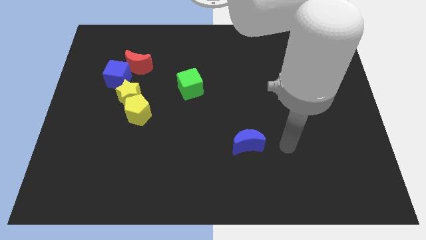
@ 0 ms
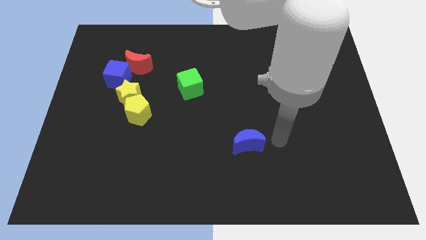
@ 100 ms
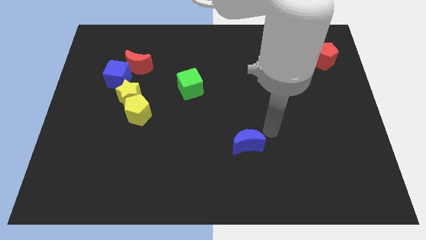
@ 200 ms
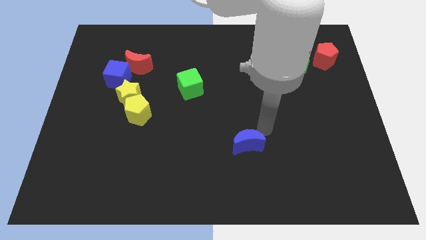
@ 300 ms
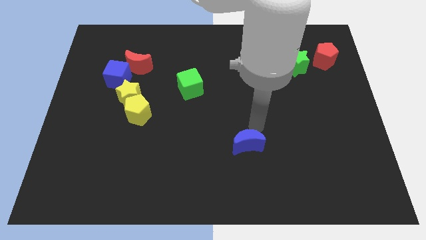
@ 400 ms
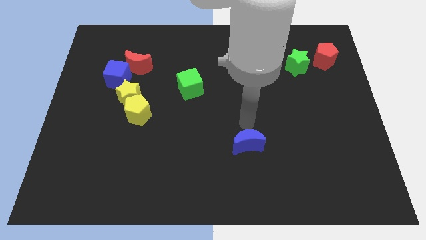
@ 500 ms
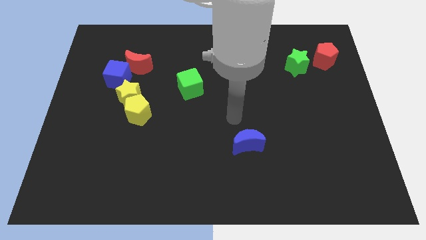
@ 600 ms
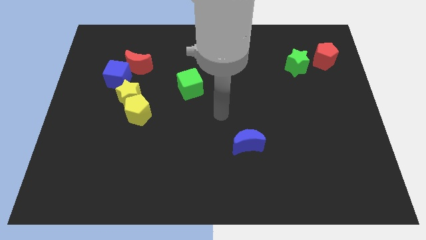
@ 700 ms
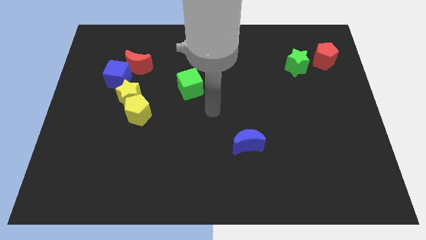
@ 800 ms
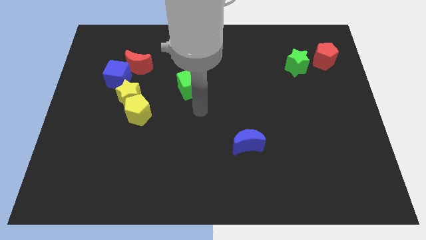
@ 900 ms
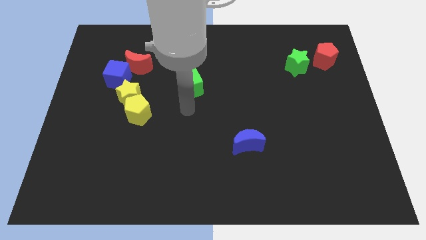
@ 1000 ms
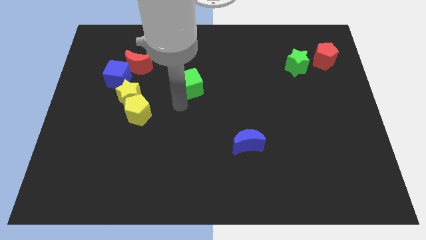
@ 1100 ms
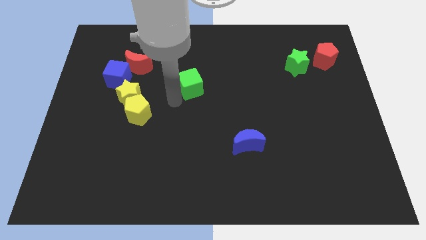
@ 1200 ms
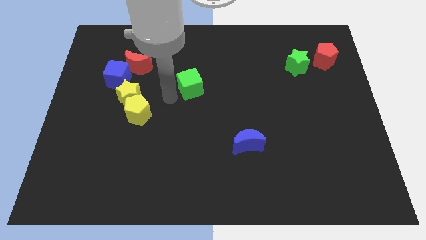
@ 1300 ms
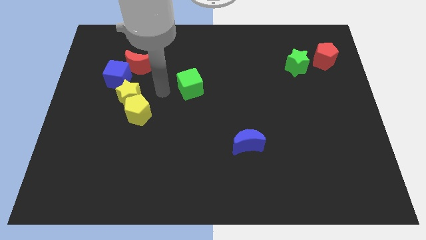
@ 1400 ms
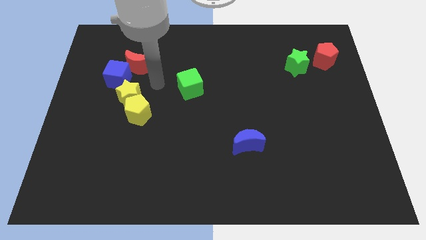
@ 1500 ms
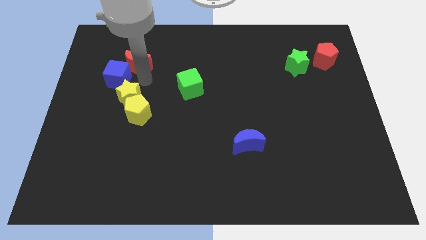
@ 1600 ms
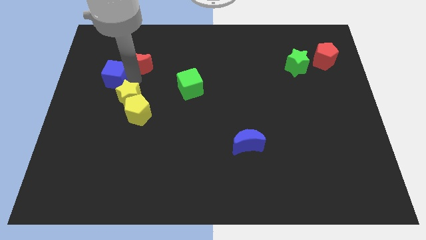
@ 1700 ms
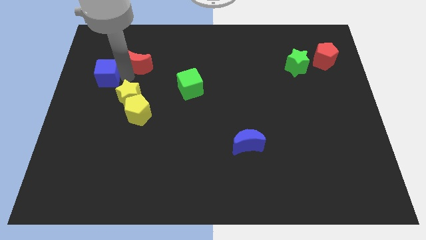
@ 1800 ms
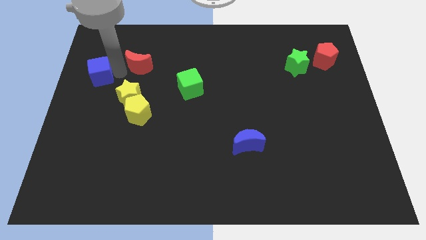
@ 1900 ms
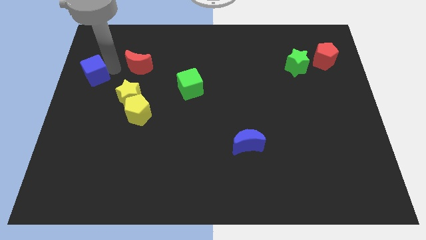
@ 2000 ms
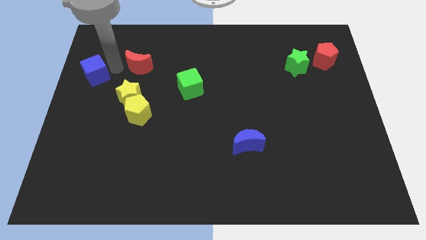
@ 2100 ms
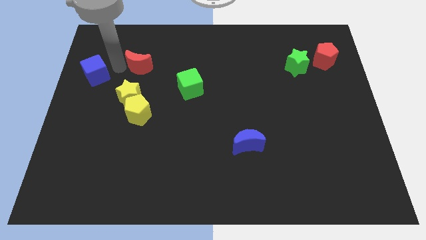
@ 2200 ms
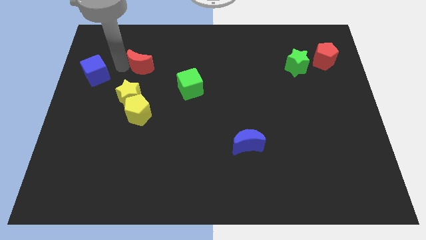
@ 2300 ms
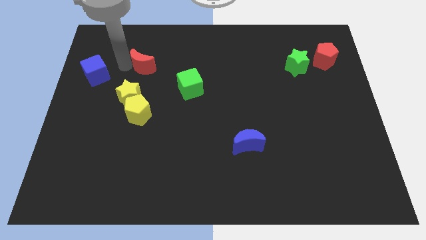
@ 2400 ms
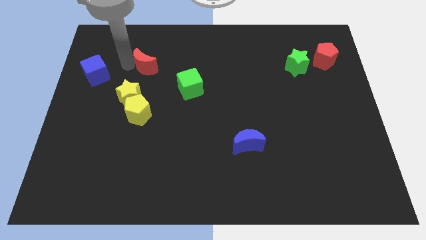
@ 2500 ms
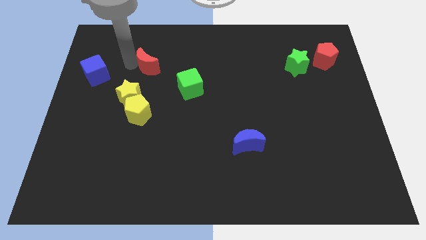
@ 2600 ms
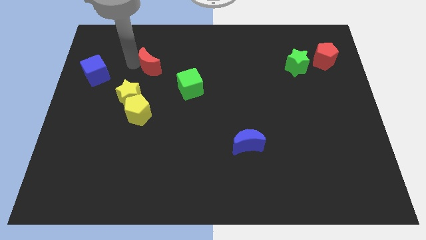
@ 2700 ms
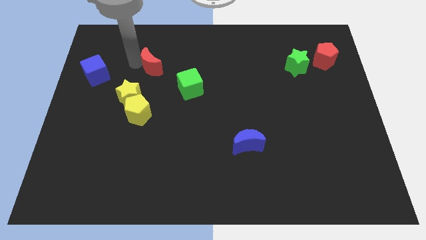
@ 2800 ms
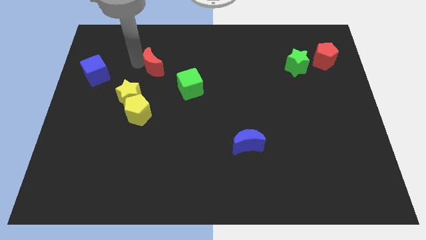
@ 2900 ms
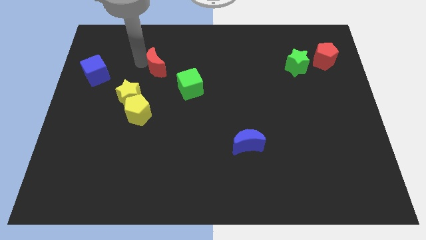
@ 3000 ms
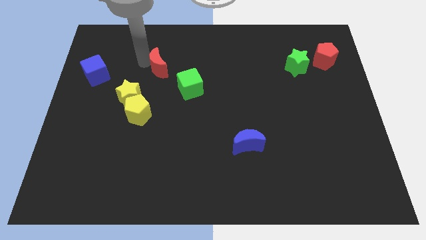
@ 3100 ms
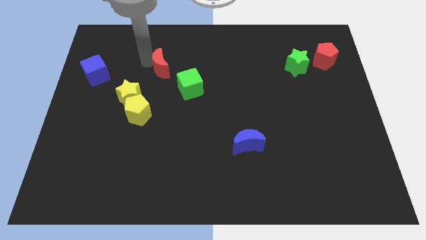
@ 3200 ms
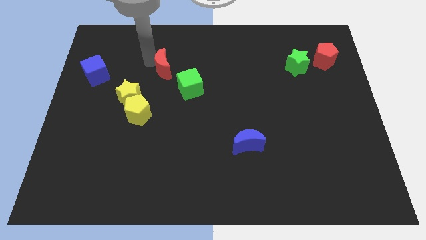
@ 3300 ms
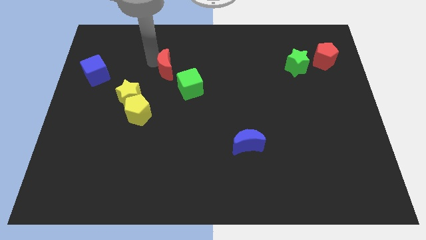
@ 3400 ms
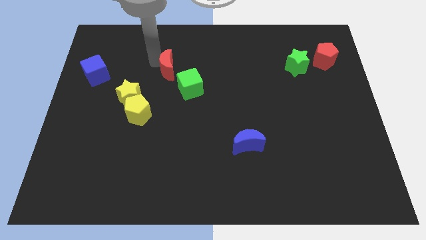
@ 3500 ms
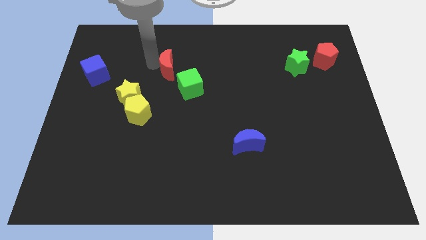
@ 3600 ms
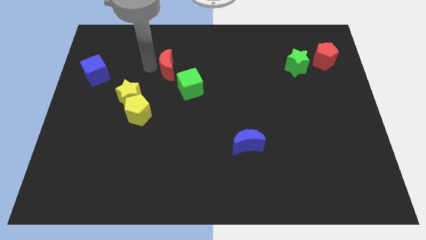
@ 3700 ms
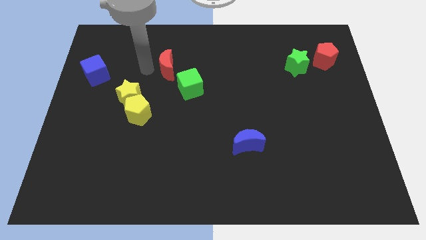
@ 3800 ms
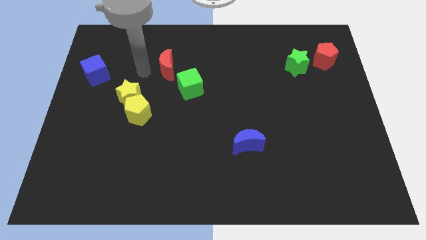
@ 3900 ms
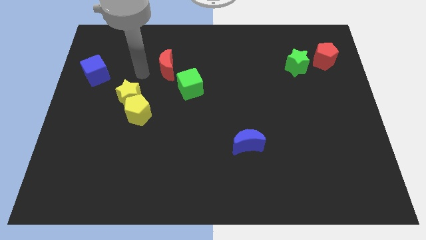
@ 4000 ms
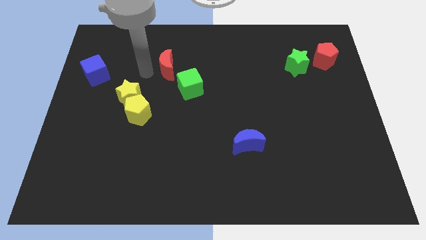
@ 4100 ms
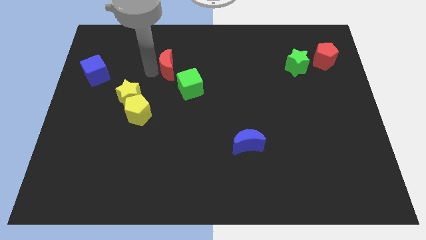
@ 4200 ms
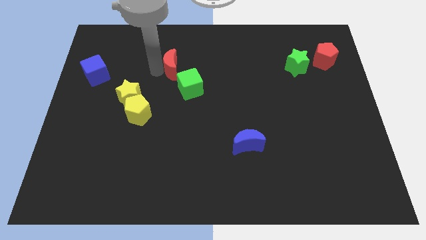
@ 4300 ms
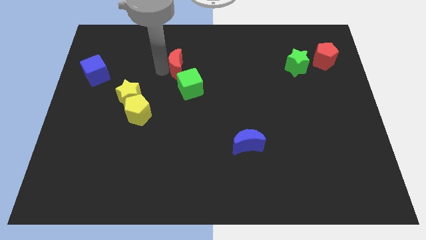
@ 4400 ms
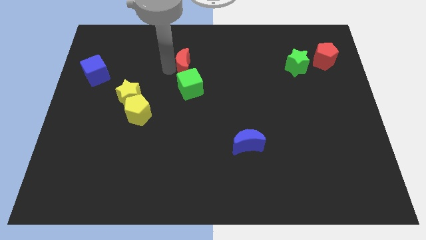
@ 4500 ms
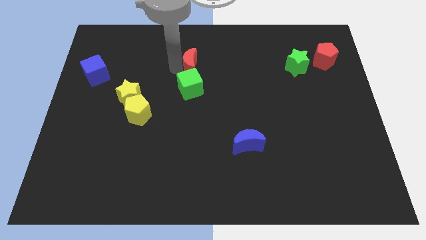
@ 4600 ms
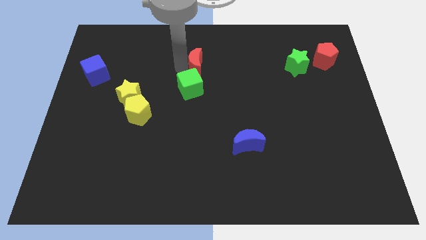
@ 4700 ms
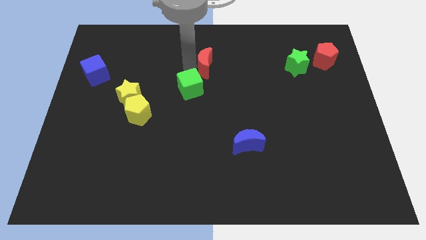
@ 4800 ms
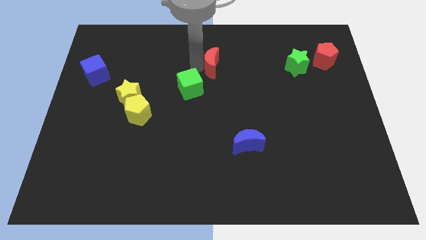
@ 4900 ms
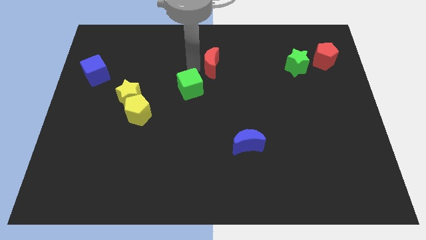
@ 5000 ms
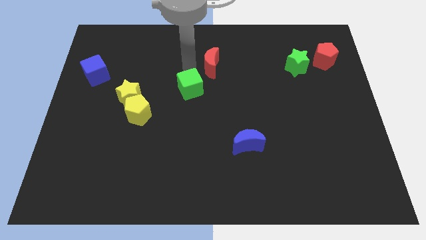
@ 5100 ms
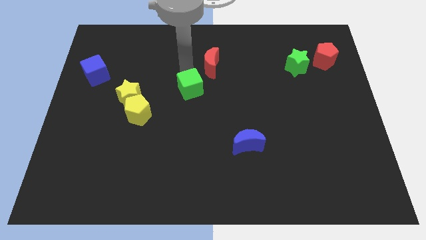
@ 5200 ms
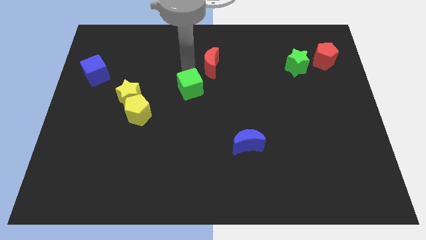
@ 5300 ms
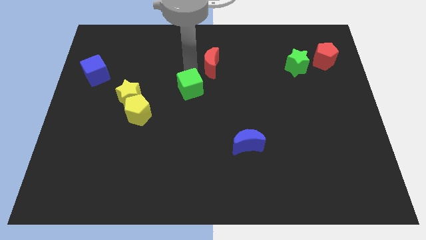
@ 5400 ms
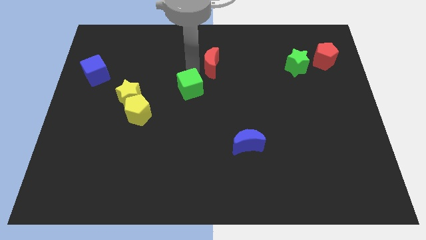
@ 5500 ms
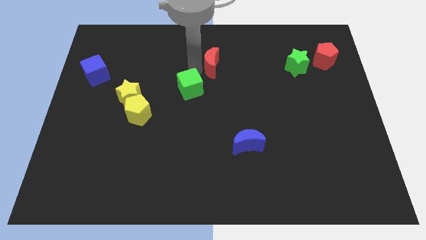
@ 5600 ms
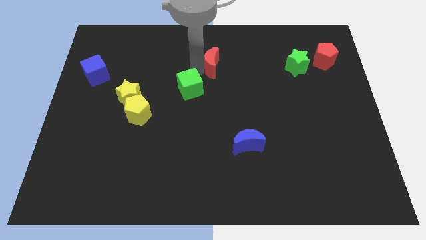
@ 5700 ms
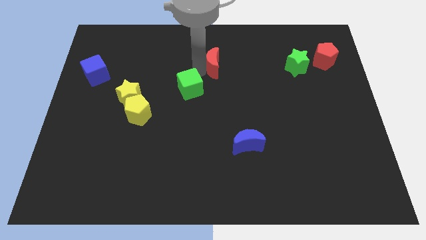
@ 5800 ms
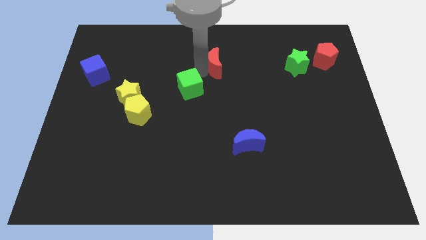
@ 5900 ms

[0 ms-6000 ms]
slide the red moon to the right

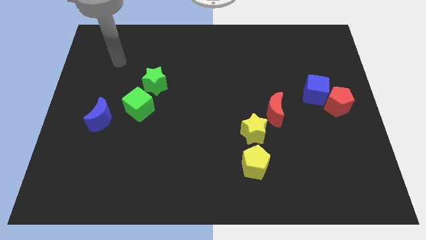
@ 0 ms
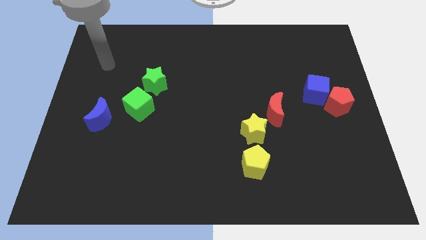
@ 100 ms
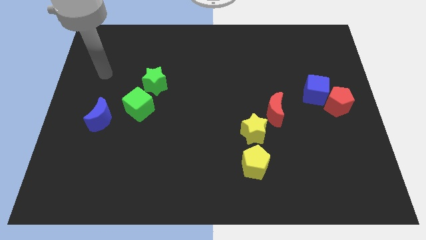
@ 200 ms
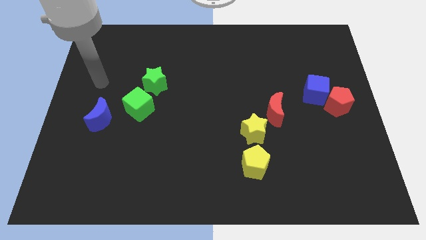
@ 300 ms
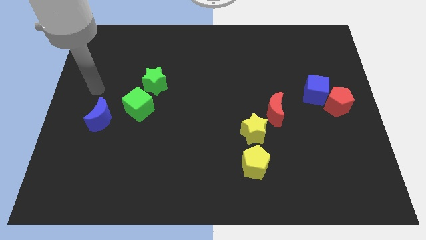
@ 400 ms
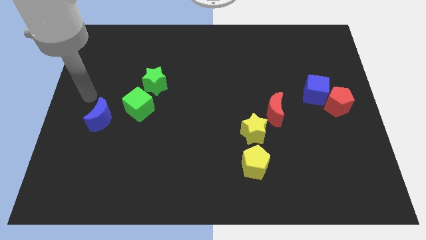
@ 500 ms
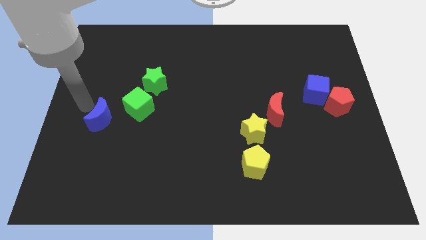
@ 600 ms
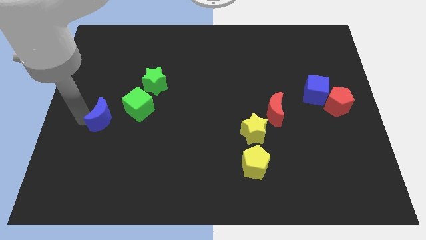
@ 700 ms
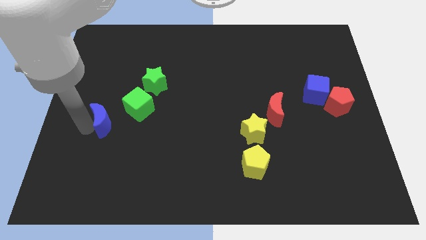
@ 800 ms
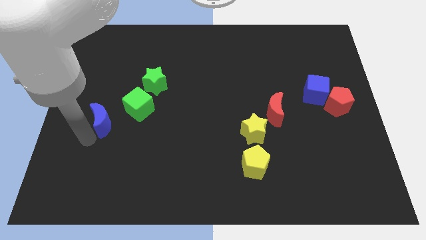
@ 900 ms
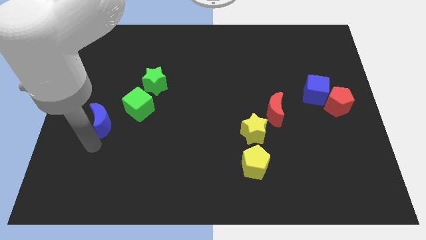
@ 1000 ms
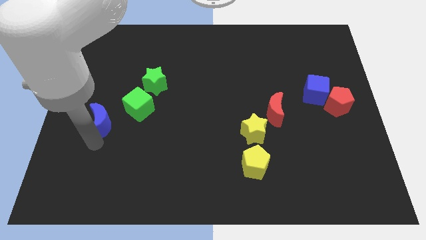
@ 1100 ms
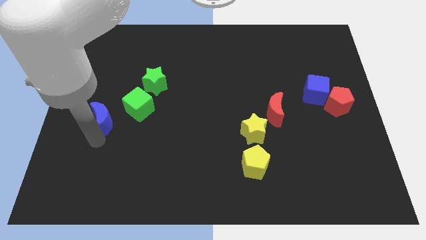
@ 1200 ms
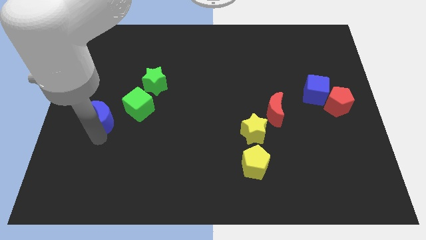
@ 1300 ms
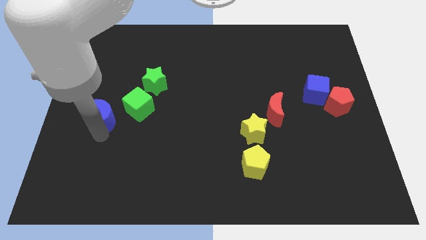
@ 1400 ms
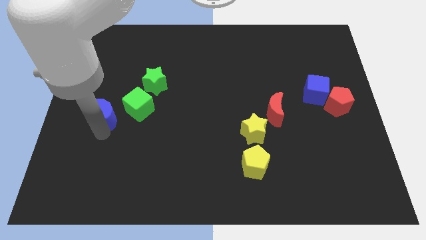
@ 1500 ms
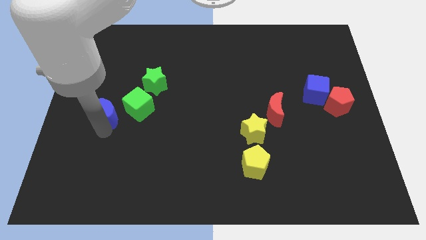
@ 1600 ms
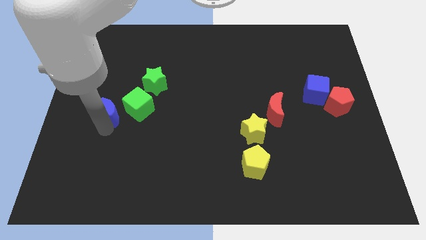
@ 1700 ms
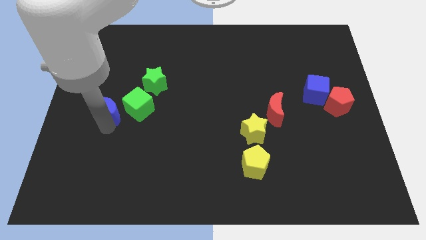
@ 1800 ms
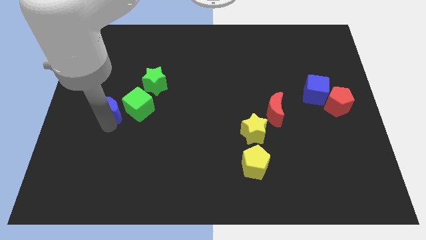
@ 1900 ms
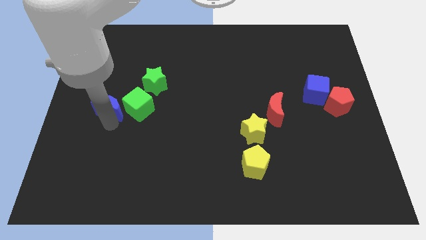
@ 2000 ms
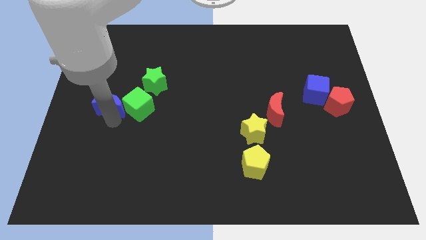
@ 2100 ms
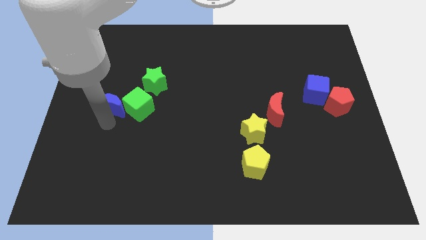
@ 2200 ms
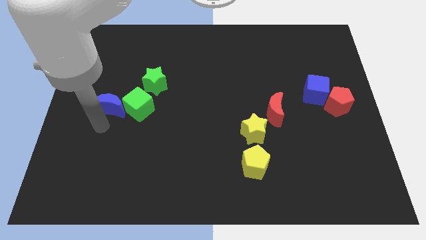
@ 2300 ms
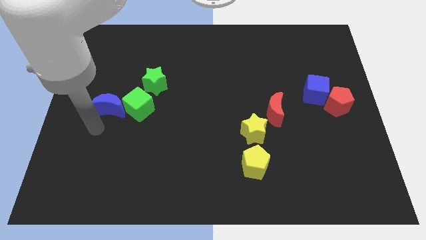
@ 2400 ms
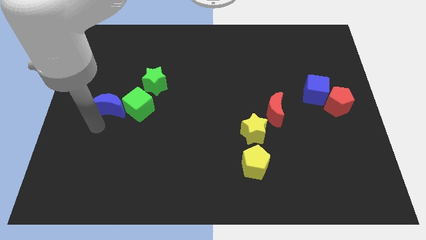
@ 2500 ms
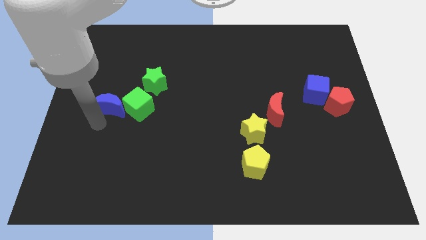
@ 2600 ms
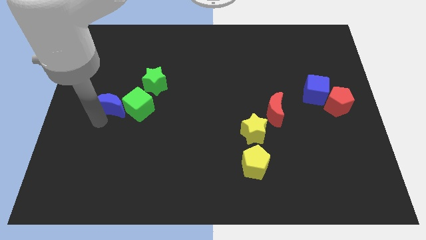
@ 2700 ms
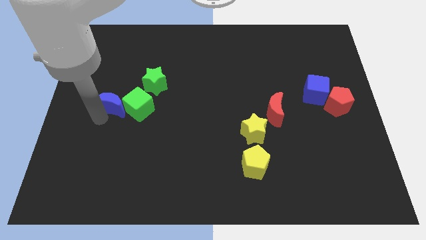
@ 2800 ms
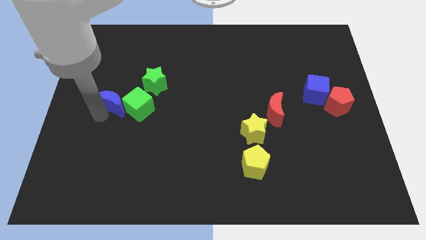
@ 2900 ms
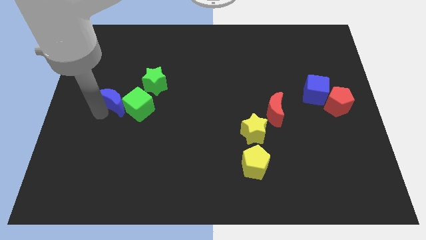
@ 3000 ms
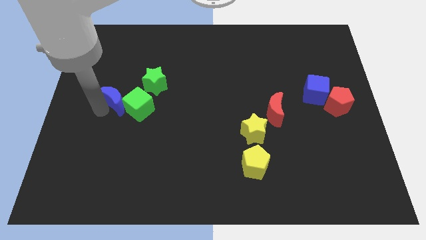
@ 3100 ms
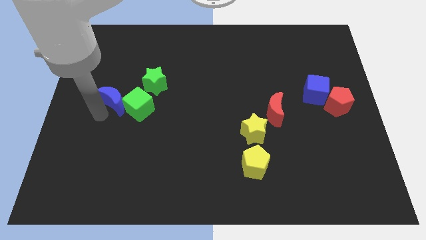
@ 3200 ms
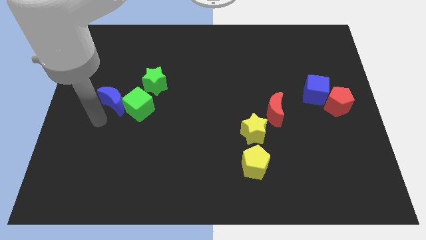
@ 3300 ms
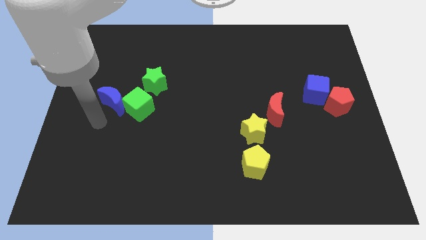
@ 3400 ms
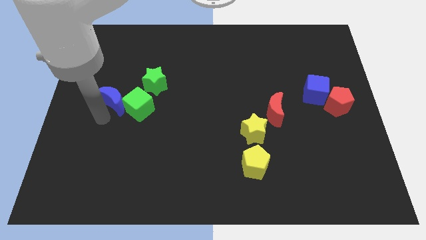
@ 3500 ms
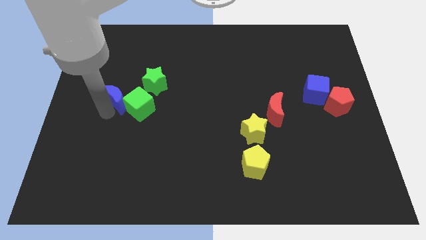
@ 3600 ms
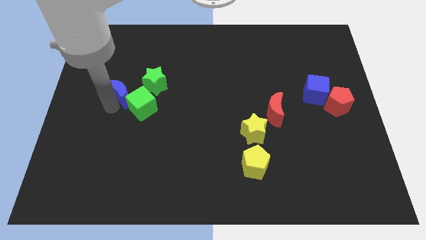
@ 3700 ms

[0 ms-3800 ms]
slightly move the blue moon diagonally upwards and right
